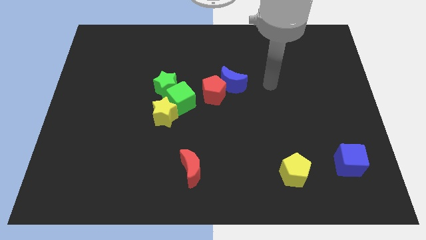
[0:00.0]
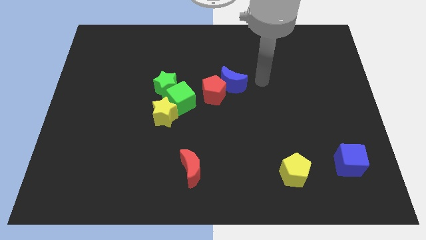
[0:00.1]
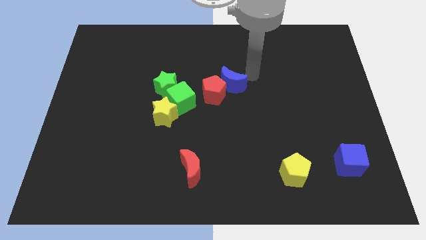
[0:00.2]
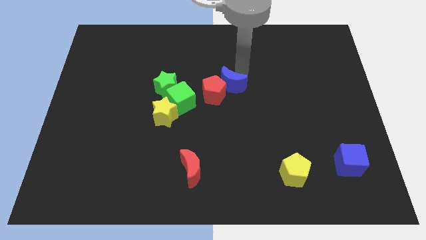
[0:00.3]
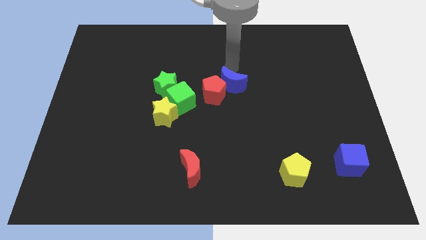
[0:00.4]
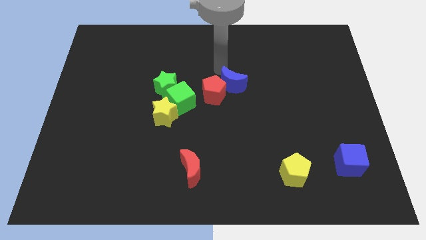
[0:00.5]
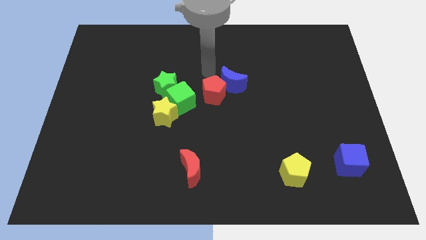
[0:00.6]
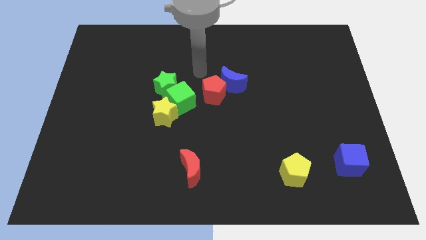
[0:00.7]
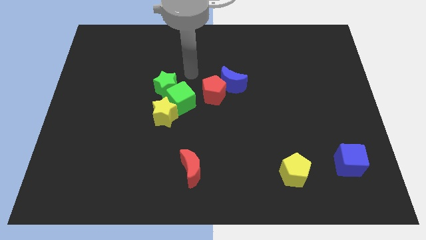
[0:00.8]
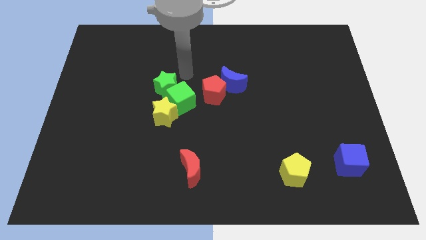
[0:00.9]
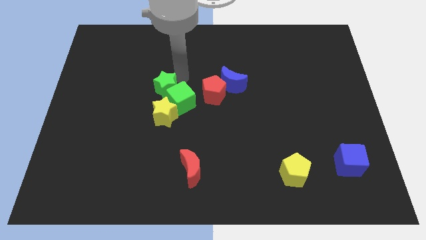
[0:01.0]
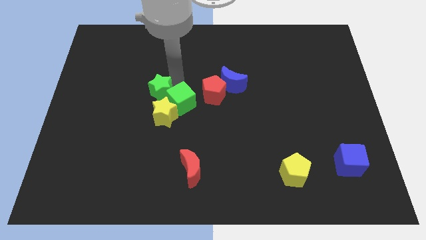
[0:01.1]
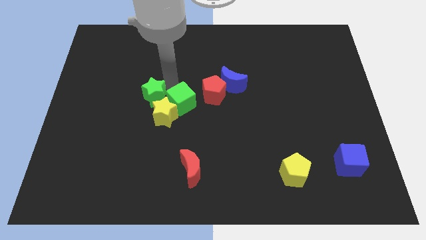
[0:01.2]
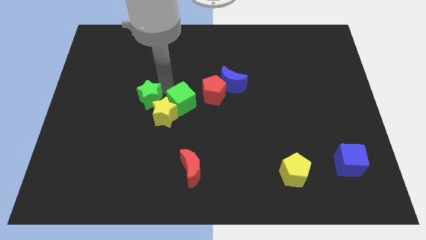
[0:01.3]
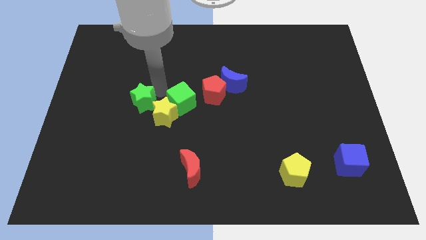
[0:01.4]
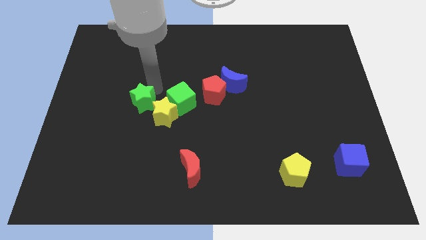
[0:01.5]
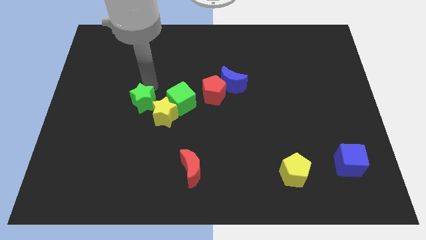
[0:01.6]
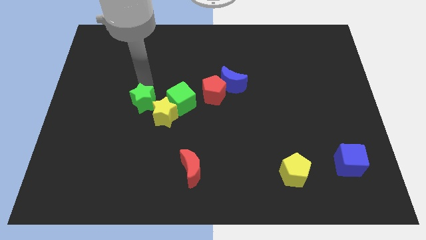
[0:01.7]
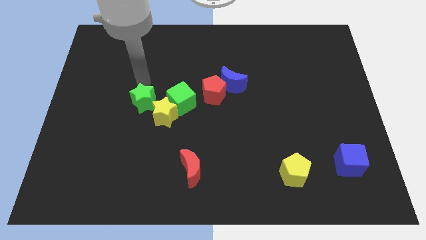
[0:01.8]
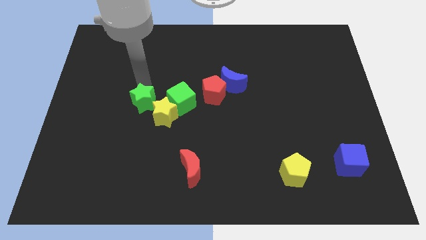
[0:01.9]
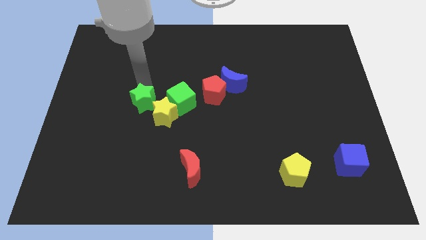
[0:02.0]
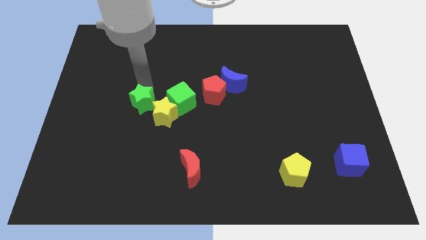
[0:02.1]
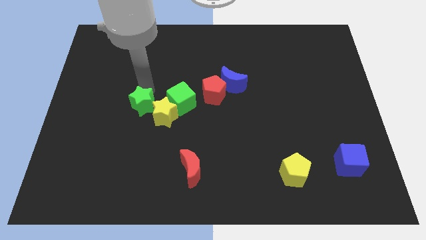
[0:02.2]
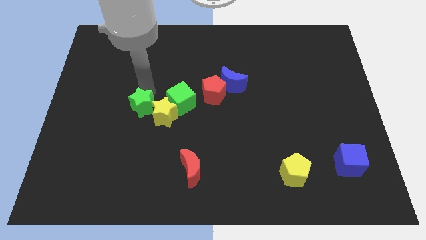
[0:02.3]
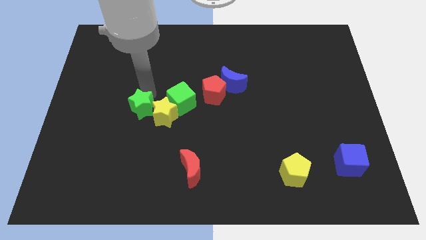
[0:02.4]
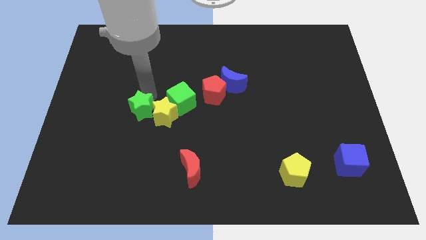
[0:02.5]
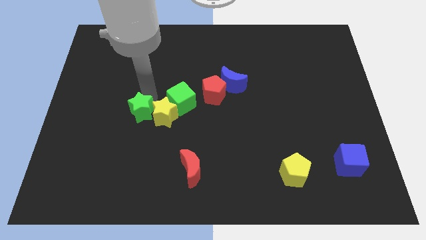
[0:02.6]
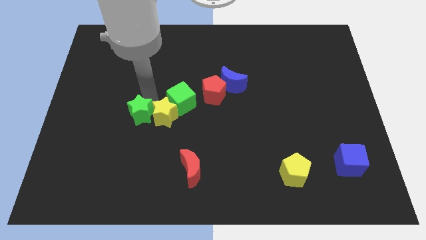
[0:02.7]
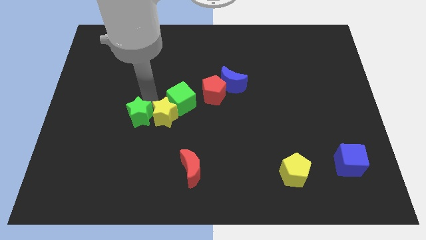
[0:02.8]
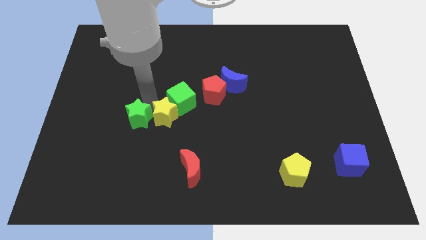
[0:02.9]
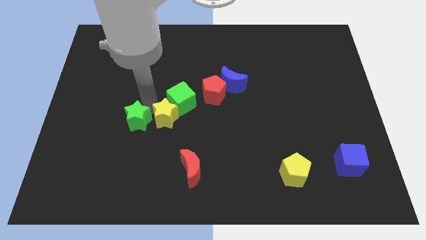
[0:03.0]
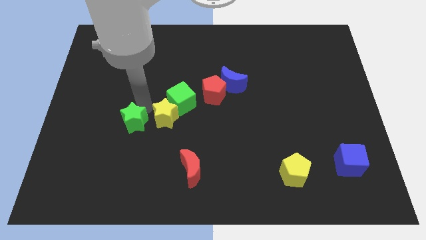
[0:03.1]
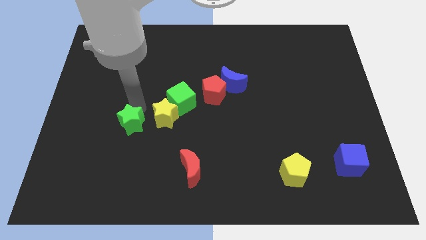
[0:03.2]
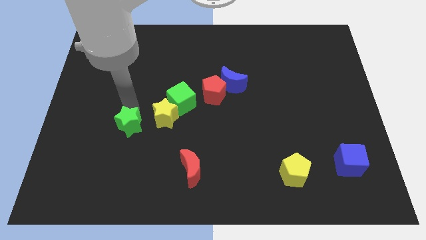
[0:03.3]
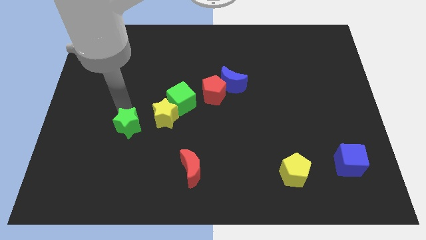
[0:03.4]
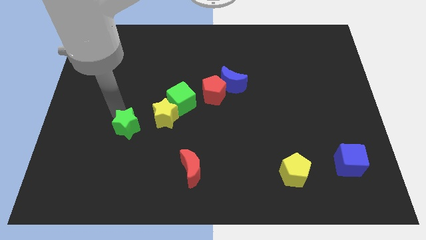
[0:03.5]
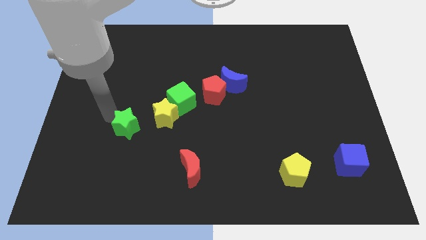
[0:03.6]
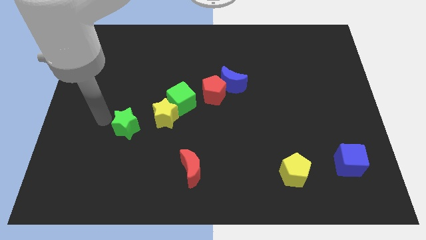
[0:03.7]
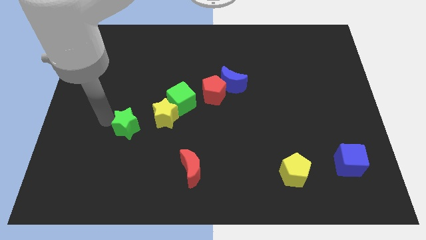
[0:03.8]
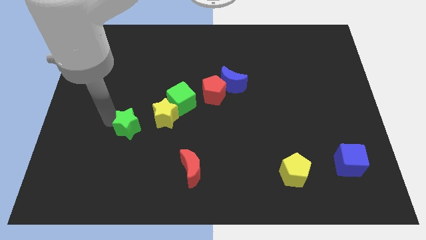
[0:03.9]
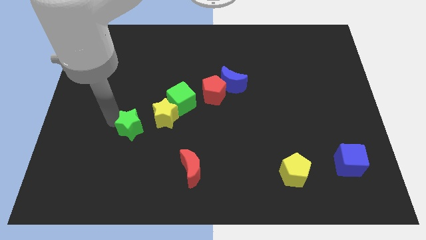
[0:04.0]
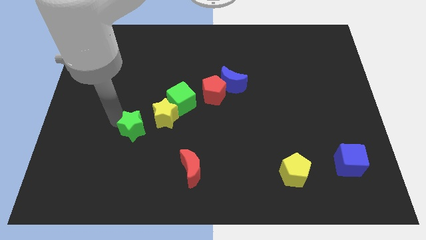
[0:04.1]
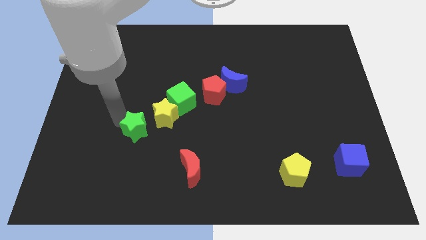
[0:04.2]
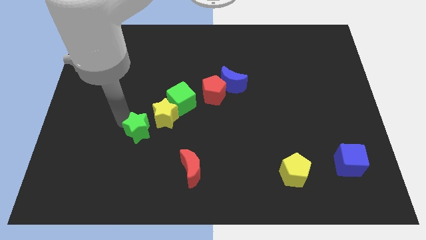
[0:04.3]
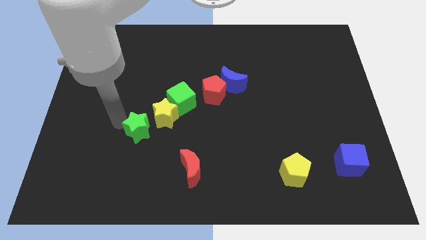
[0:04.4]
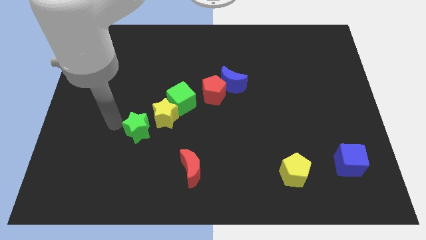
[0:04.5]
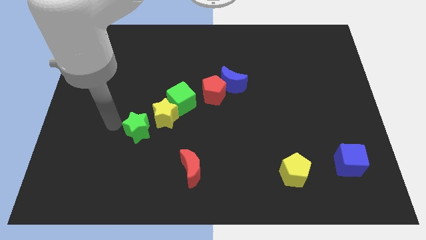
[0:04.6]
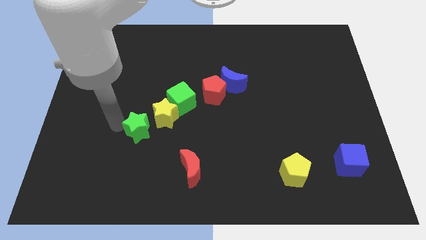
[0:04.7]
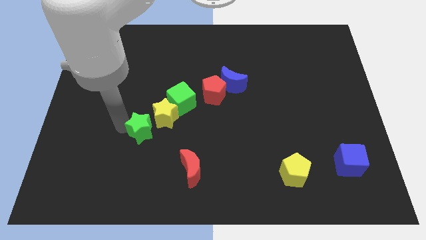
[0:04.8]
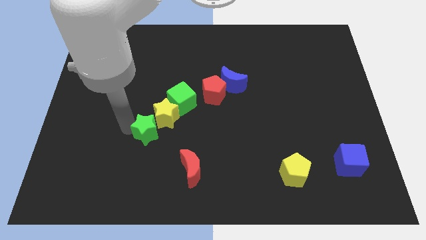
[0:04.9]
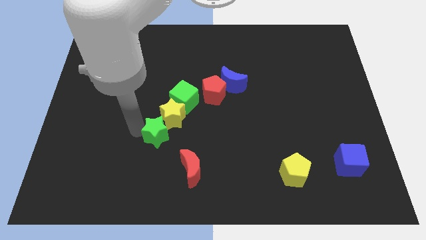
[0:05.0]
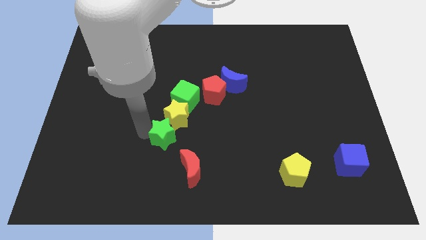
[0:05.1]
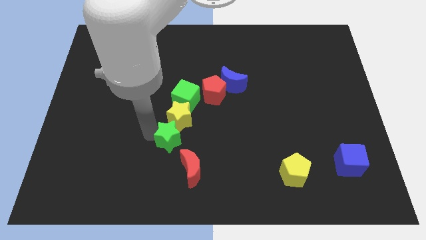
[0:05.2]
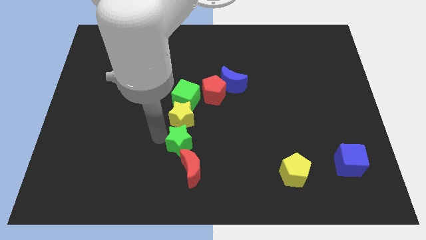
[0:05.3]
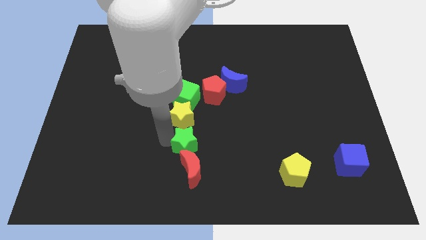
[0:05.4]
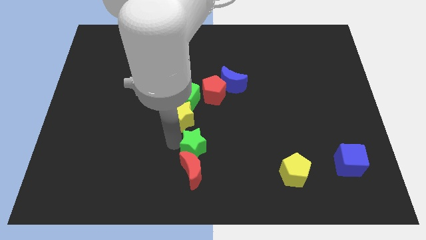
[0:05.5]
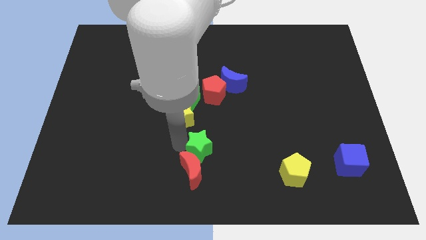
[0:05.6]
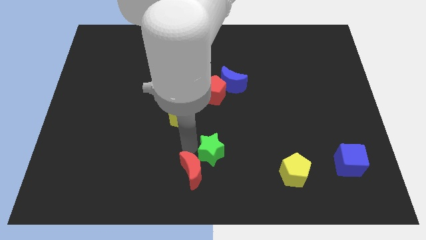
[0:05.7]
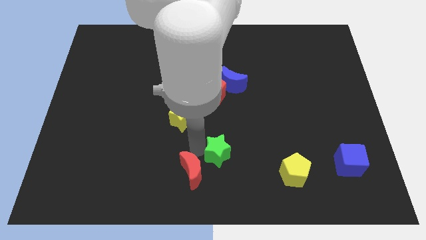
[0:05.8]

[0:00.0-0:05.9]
push the green star downwards and then right

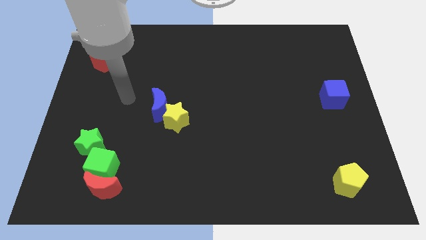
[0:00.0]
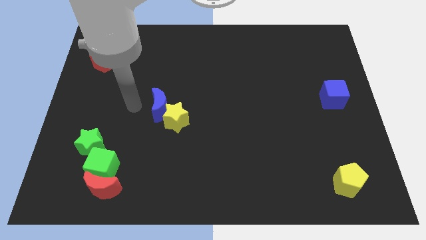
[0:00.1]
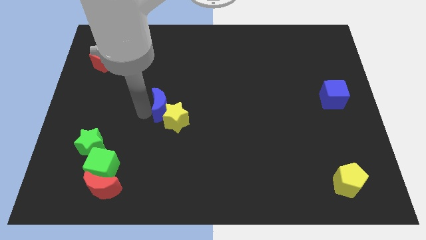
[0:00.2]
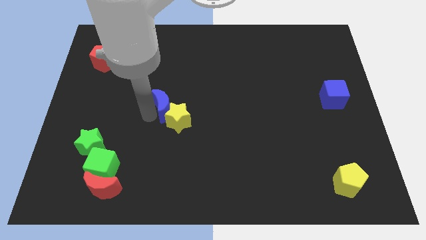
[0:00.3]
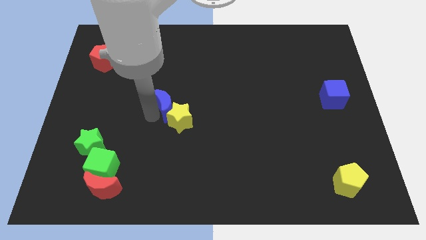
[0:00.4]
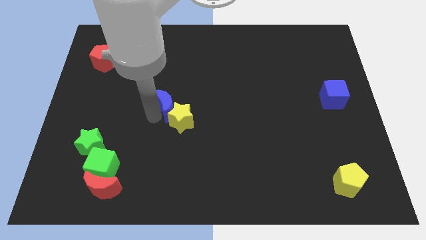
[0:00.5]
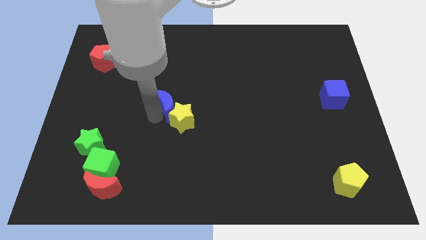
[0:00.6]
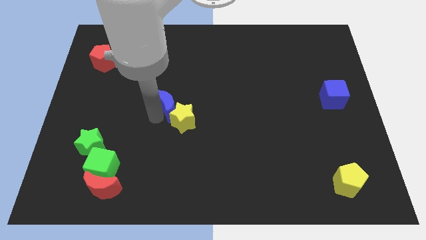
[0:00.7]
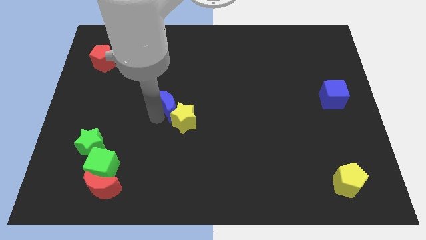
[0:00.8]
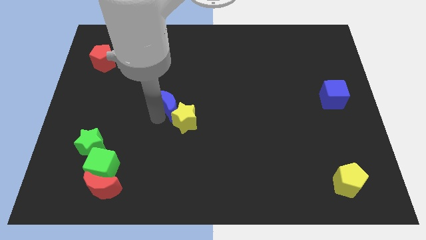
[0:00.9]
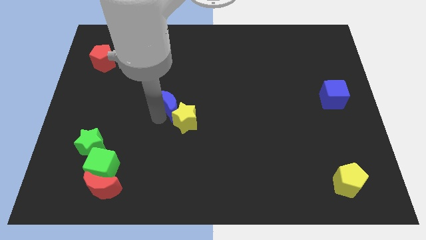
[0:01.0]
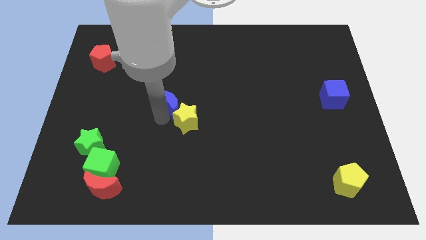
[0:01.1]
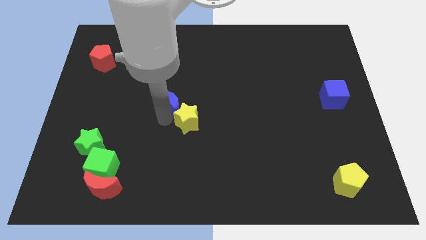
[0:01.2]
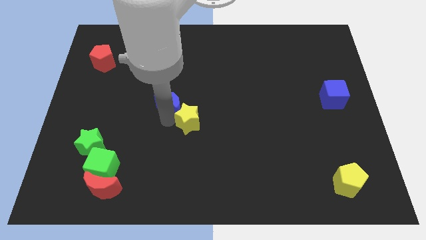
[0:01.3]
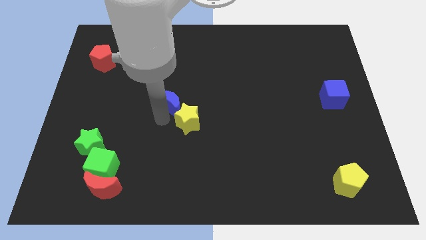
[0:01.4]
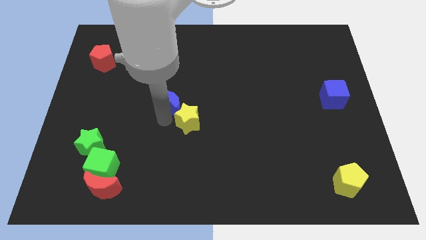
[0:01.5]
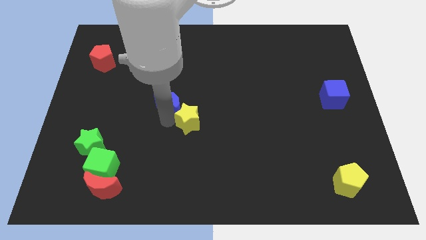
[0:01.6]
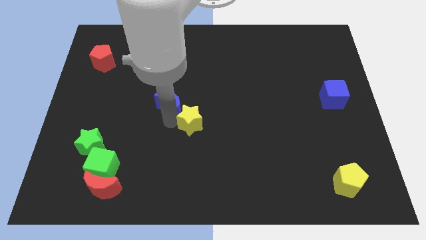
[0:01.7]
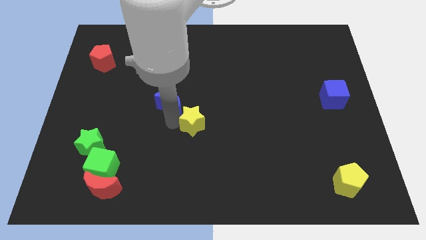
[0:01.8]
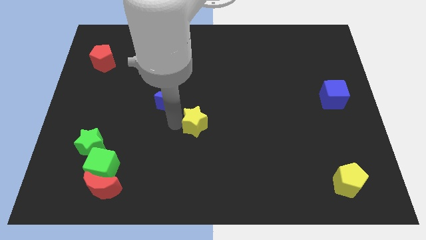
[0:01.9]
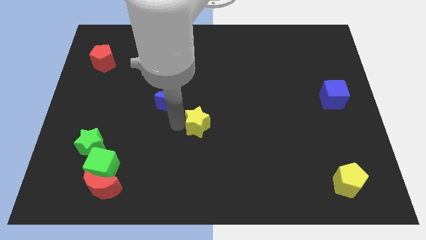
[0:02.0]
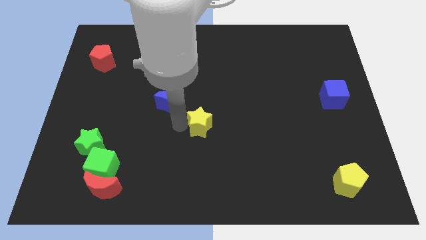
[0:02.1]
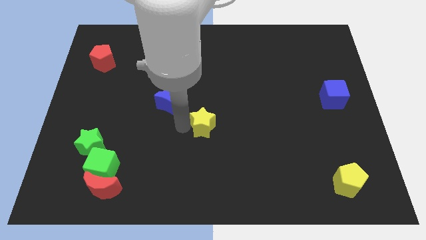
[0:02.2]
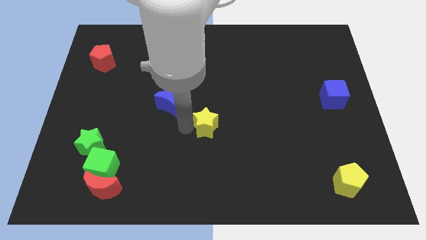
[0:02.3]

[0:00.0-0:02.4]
slightly slide the yellow star to the right
